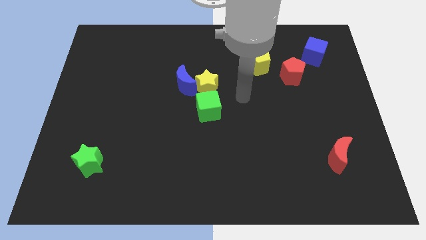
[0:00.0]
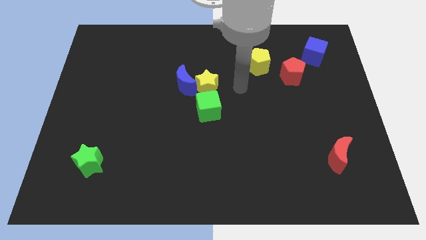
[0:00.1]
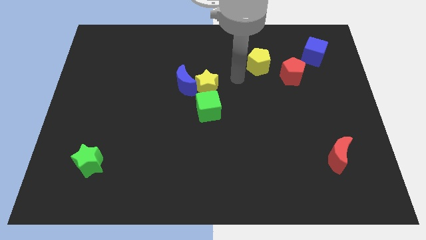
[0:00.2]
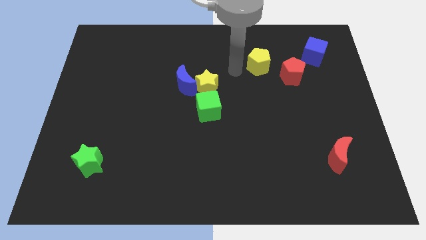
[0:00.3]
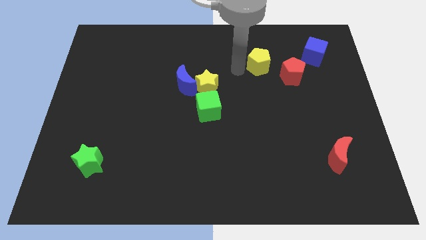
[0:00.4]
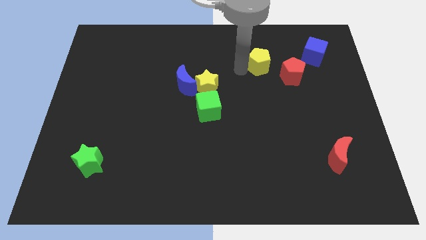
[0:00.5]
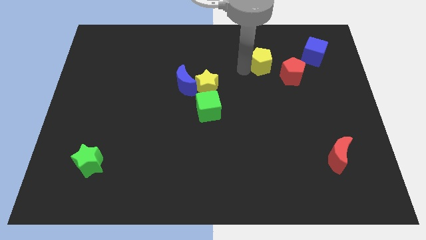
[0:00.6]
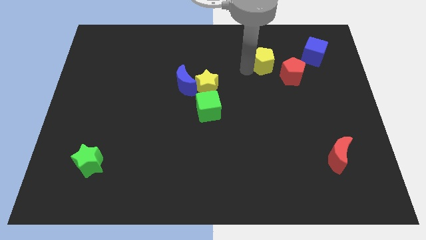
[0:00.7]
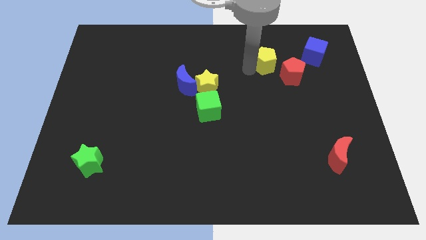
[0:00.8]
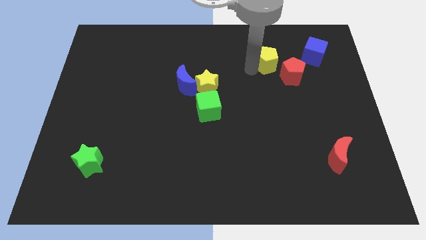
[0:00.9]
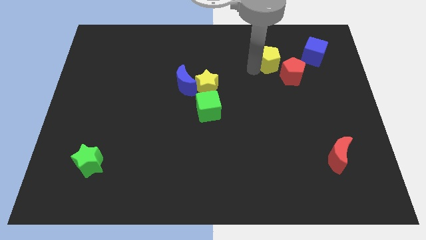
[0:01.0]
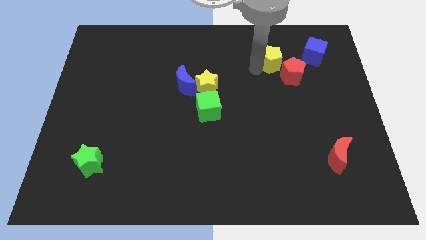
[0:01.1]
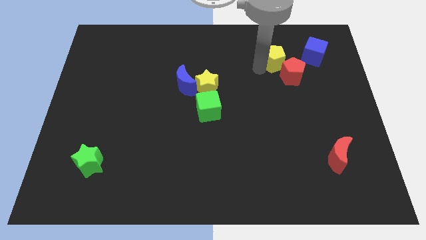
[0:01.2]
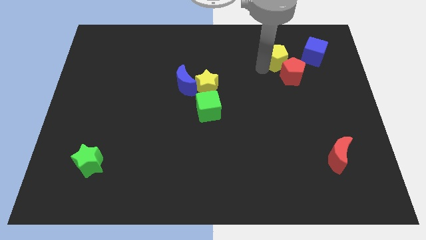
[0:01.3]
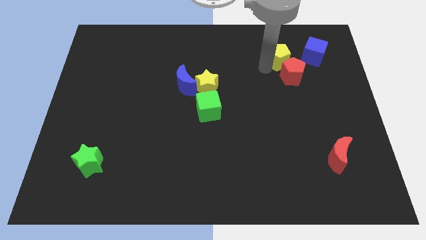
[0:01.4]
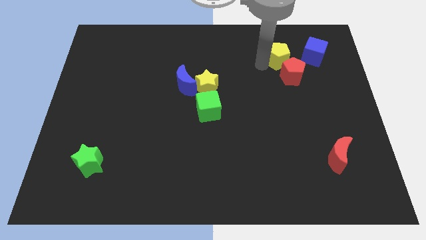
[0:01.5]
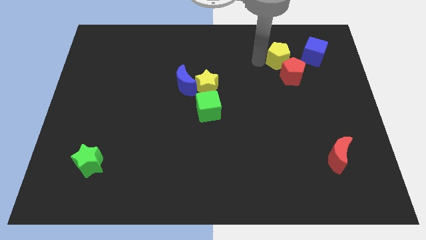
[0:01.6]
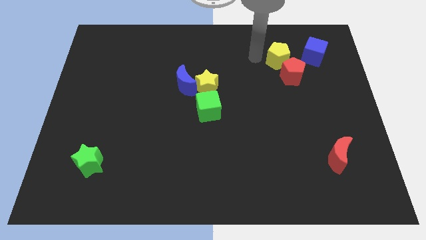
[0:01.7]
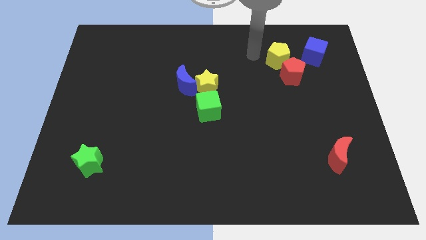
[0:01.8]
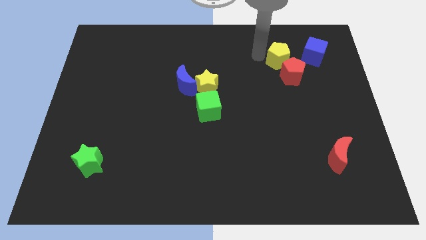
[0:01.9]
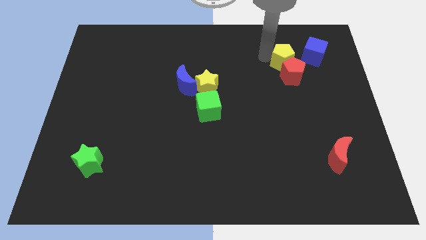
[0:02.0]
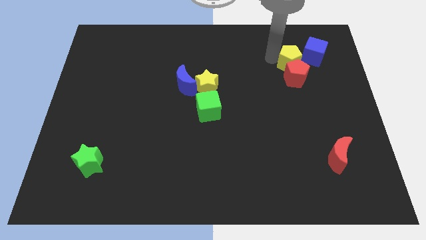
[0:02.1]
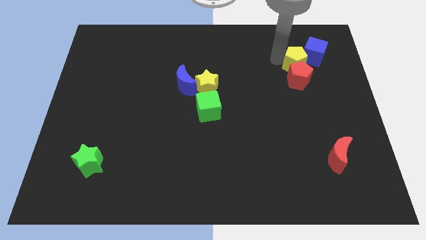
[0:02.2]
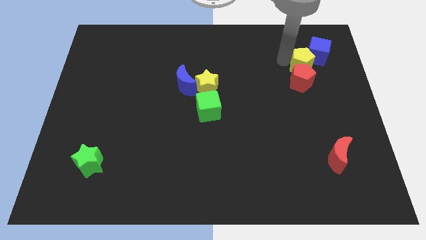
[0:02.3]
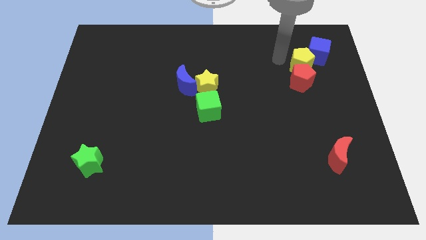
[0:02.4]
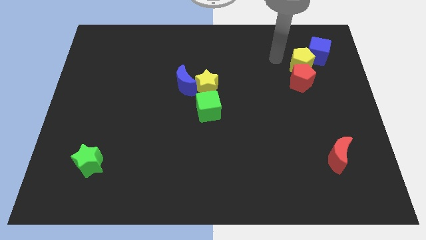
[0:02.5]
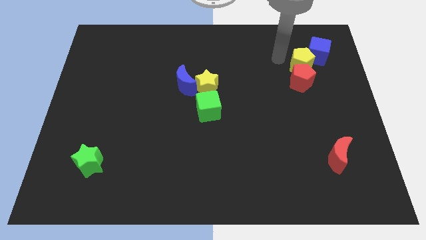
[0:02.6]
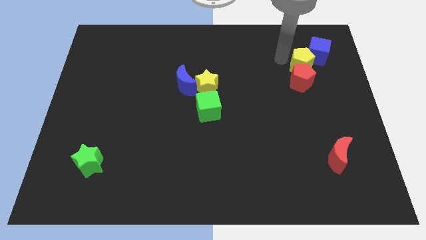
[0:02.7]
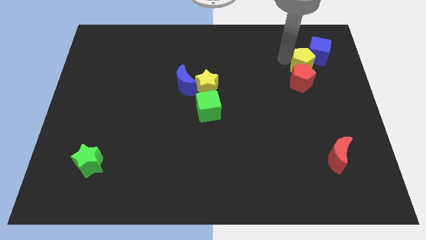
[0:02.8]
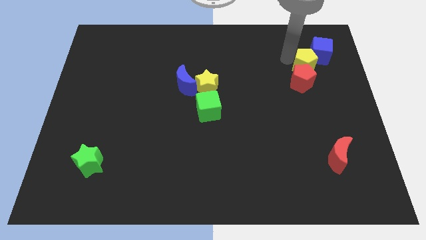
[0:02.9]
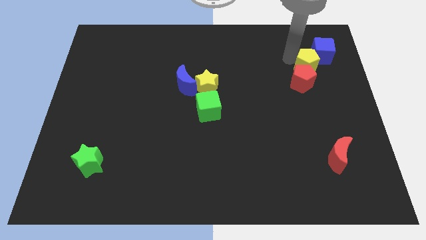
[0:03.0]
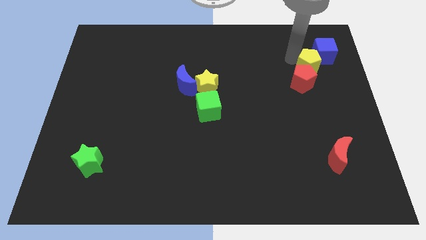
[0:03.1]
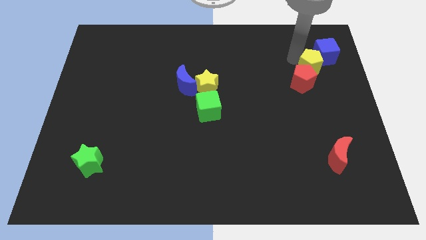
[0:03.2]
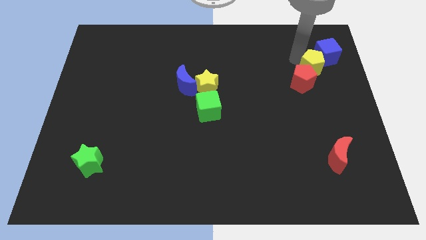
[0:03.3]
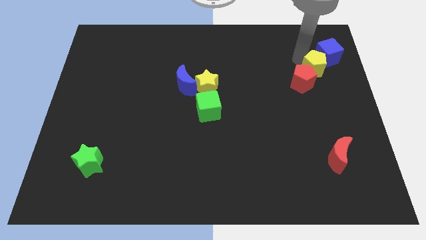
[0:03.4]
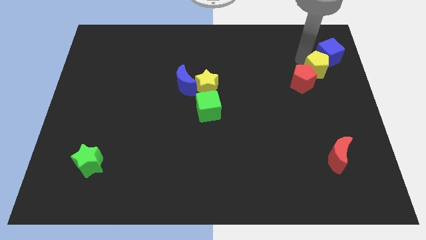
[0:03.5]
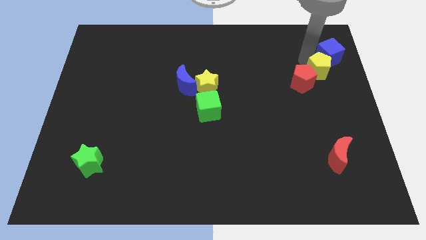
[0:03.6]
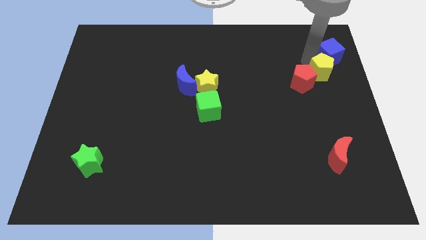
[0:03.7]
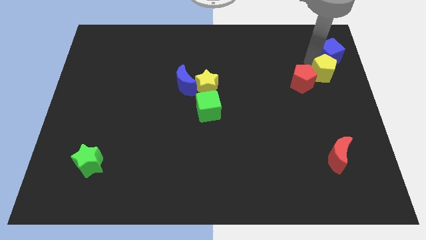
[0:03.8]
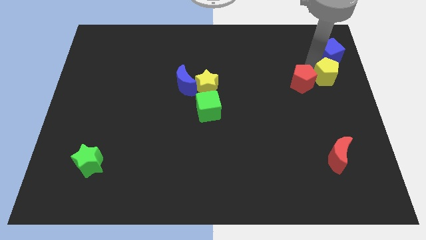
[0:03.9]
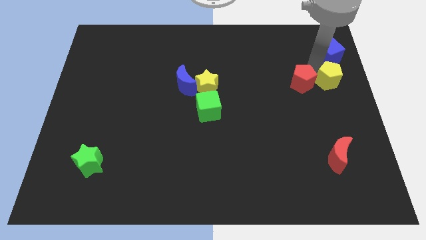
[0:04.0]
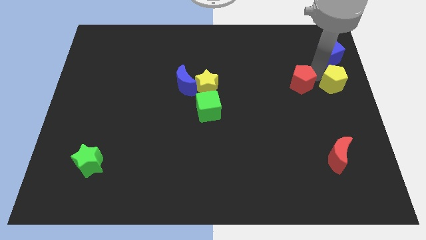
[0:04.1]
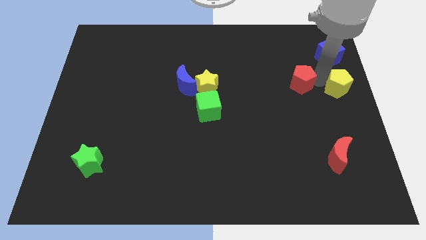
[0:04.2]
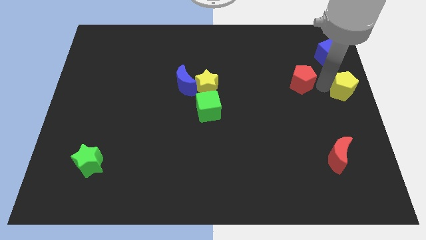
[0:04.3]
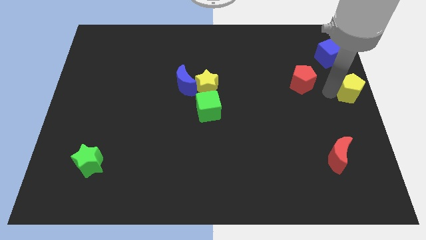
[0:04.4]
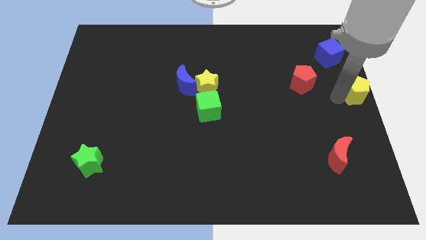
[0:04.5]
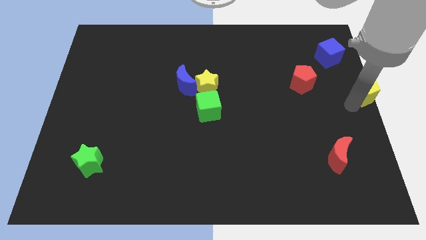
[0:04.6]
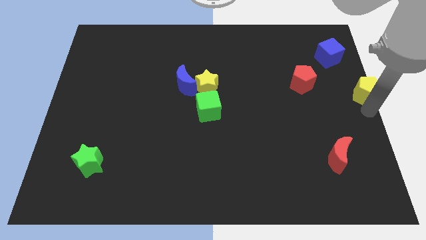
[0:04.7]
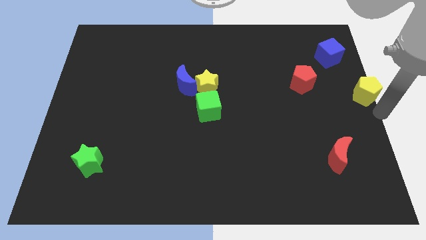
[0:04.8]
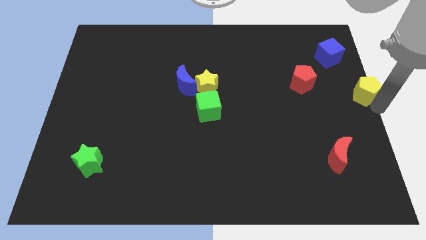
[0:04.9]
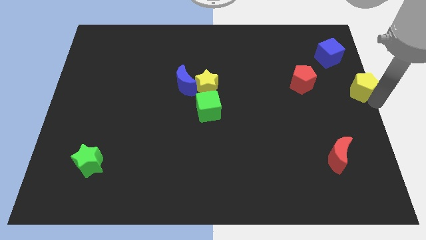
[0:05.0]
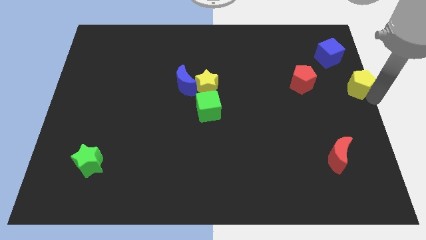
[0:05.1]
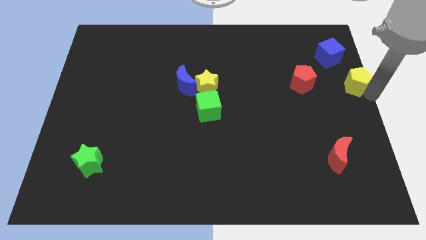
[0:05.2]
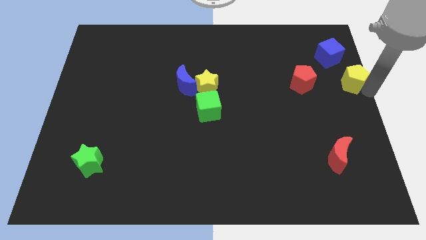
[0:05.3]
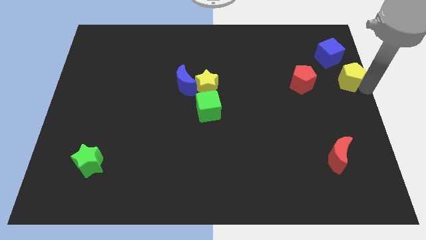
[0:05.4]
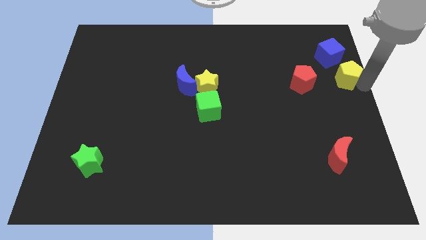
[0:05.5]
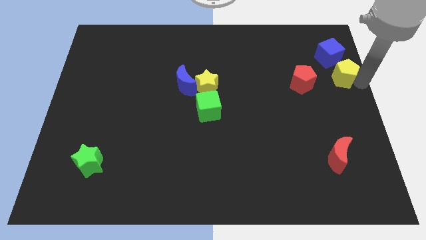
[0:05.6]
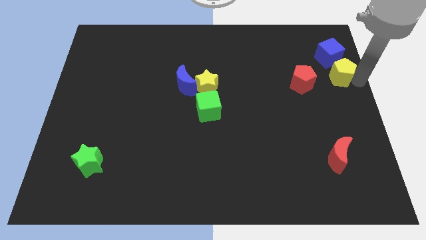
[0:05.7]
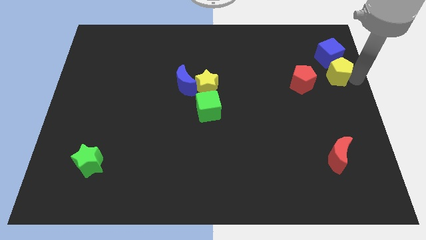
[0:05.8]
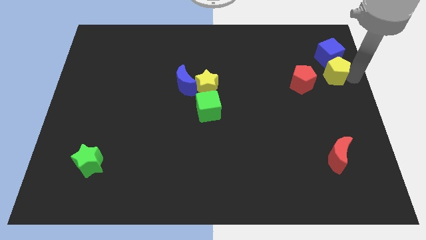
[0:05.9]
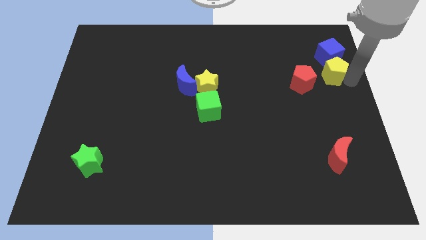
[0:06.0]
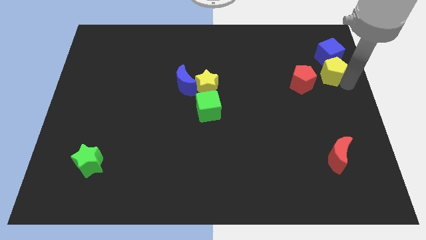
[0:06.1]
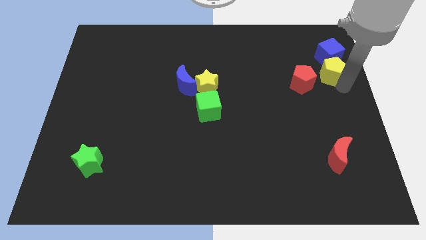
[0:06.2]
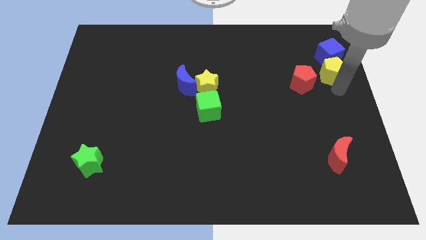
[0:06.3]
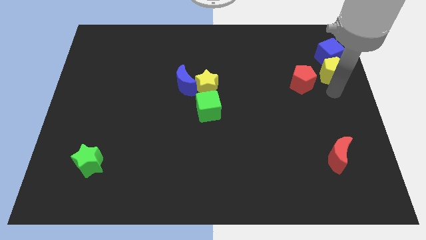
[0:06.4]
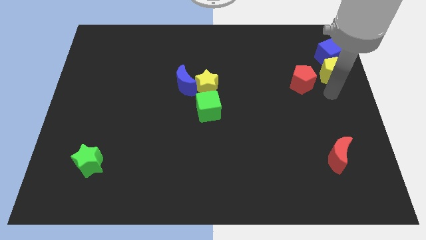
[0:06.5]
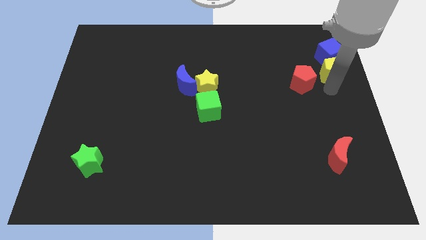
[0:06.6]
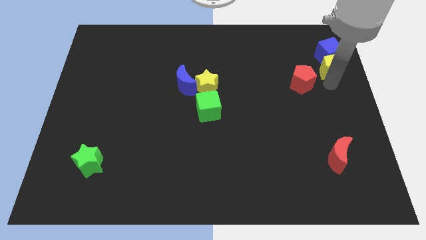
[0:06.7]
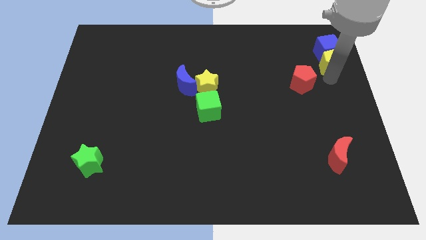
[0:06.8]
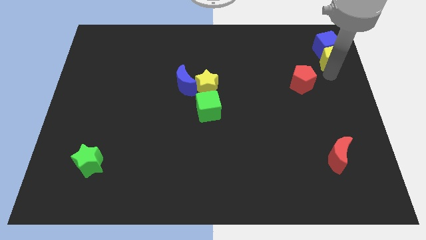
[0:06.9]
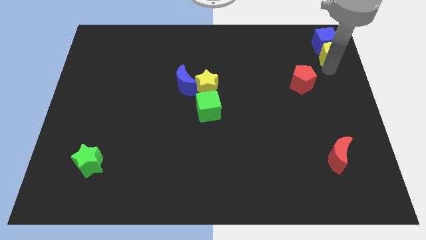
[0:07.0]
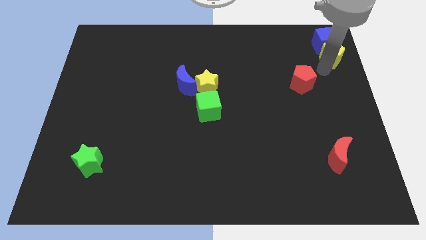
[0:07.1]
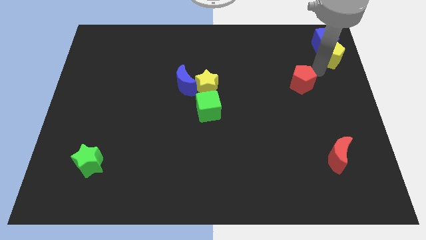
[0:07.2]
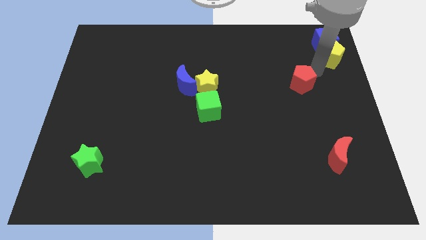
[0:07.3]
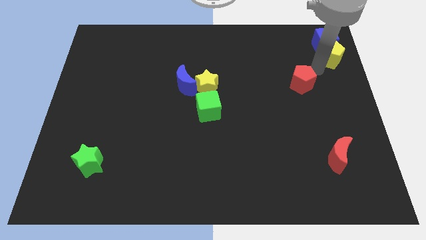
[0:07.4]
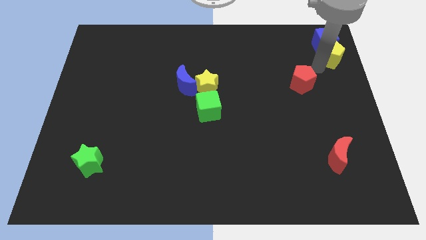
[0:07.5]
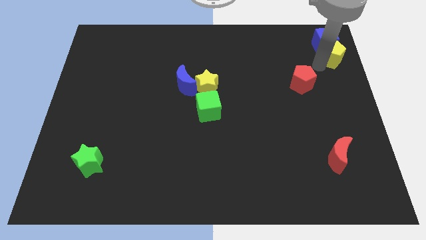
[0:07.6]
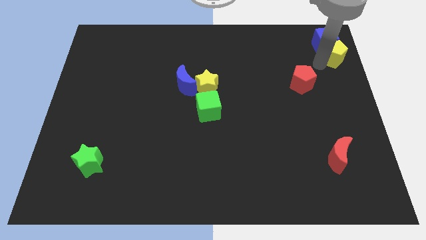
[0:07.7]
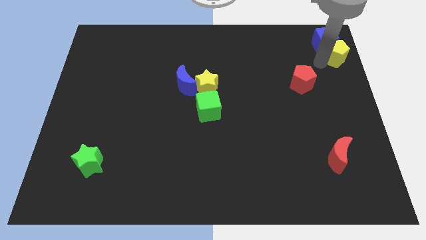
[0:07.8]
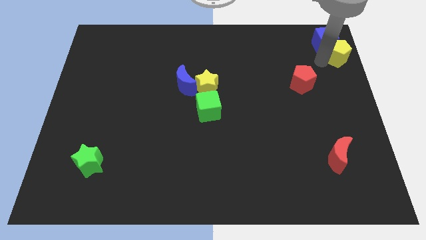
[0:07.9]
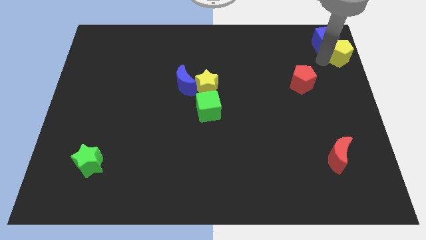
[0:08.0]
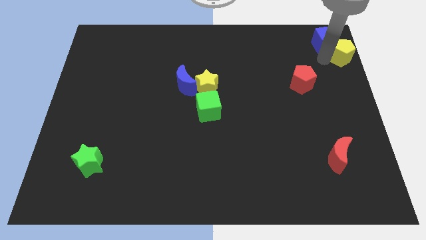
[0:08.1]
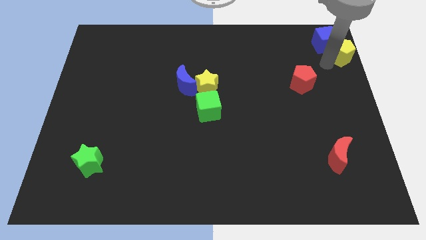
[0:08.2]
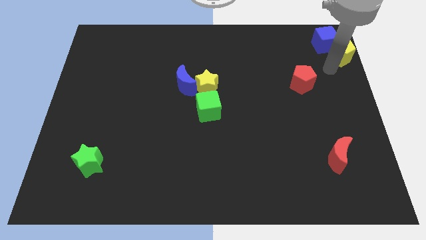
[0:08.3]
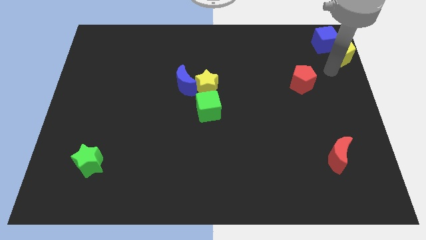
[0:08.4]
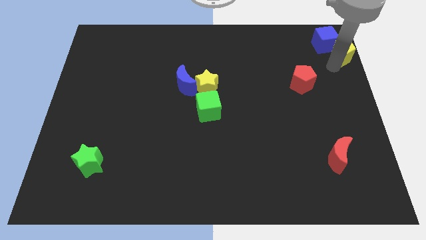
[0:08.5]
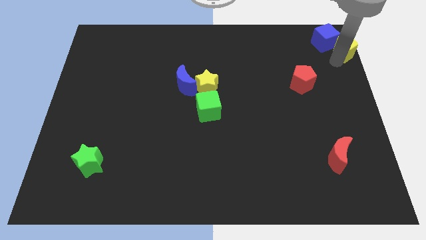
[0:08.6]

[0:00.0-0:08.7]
slide the yellow pentagon to the top right of the board
